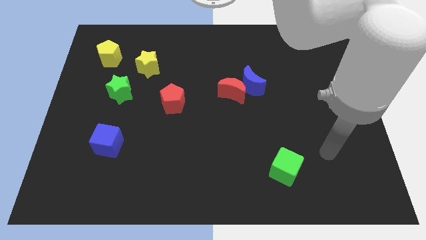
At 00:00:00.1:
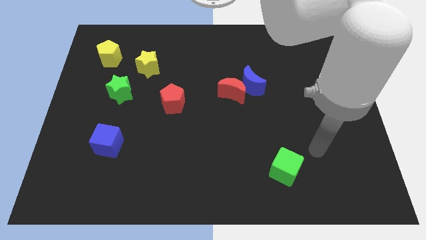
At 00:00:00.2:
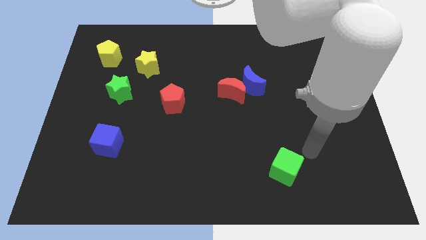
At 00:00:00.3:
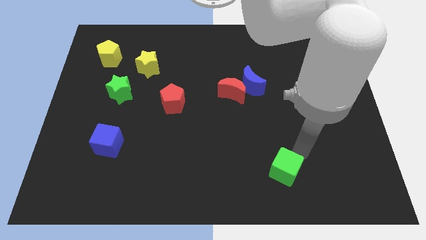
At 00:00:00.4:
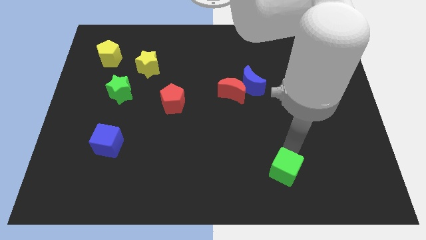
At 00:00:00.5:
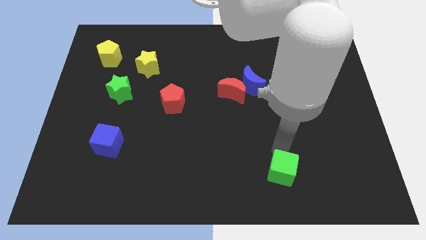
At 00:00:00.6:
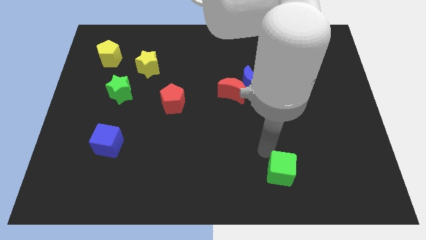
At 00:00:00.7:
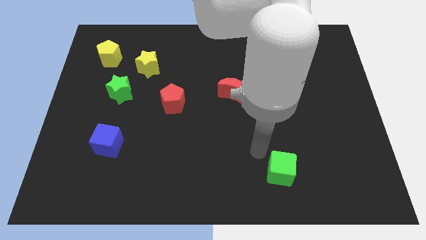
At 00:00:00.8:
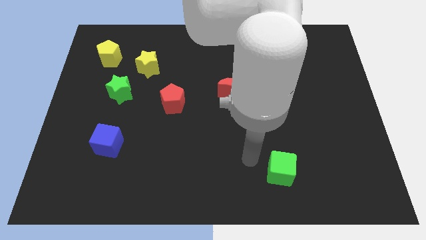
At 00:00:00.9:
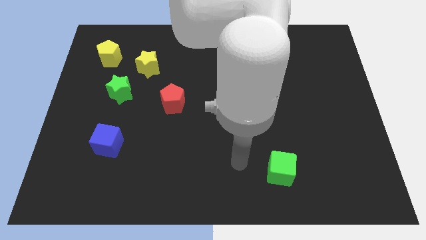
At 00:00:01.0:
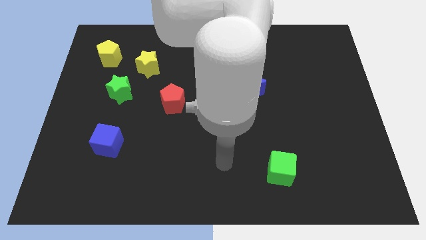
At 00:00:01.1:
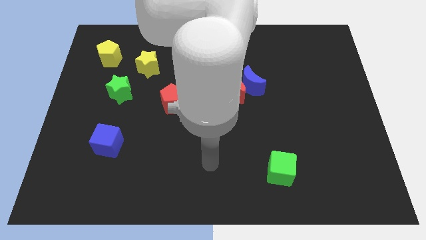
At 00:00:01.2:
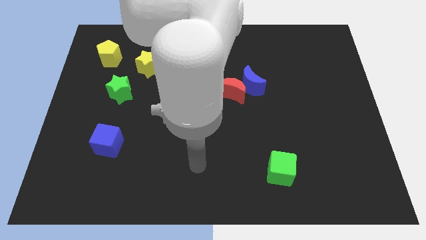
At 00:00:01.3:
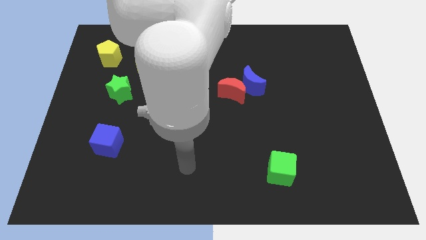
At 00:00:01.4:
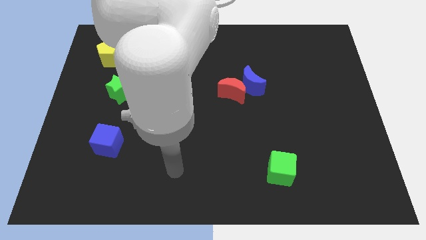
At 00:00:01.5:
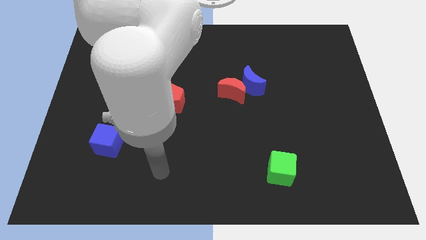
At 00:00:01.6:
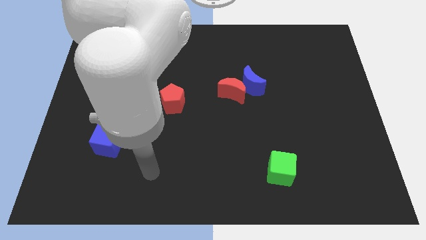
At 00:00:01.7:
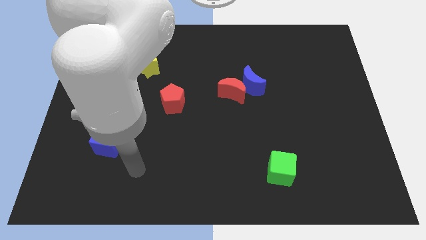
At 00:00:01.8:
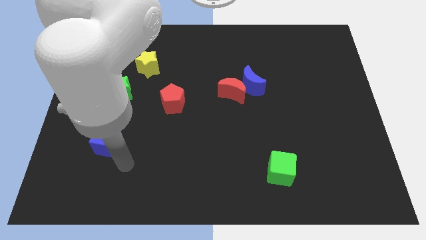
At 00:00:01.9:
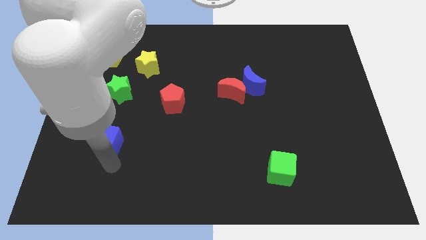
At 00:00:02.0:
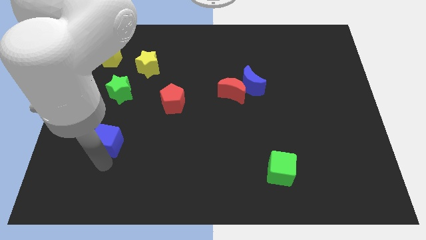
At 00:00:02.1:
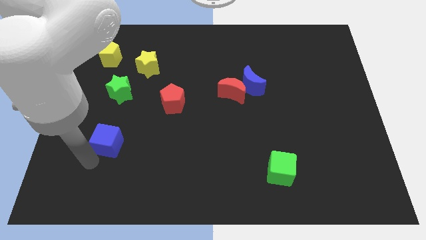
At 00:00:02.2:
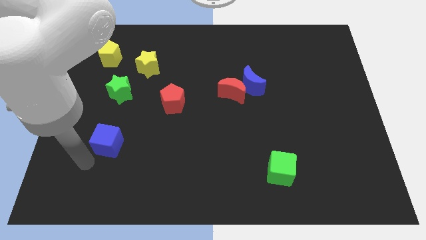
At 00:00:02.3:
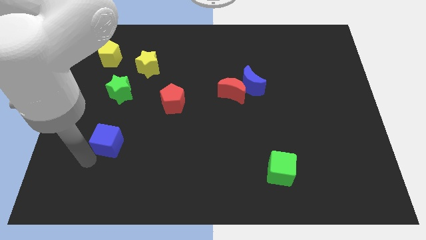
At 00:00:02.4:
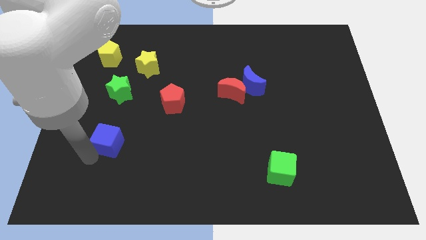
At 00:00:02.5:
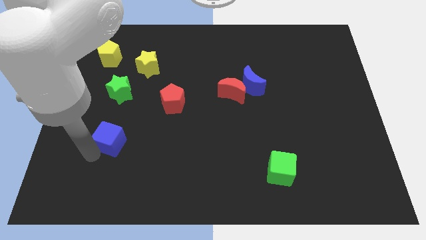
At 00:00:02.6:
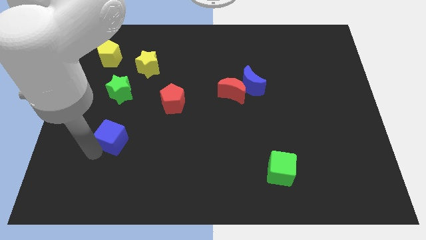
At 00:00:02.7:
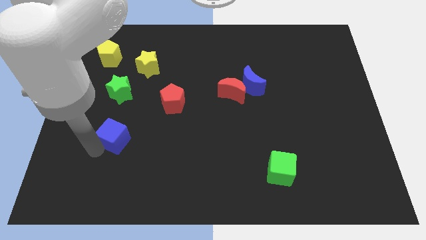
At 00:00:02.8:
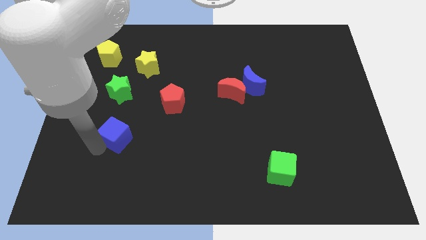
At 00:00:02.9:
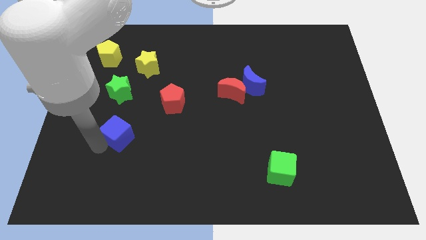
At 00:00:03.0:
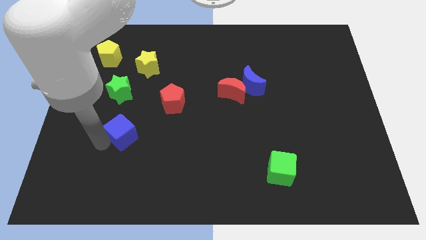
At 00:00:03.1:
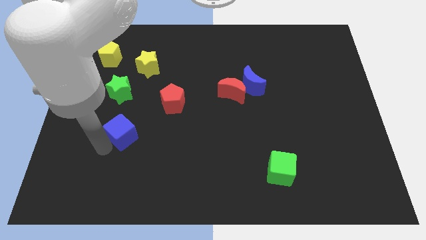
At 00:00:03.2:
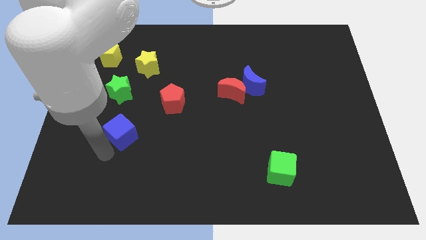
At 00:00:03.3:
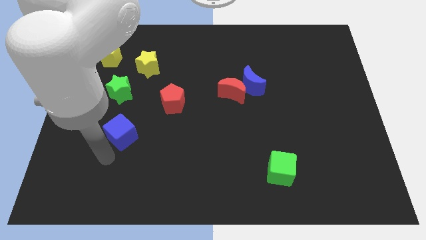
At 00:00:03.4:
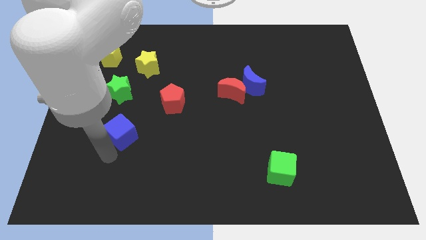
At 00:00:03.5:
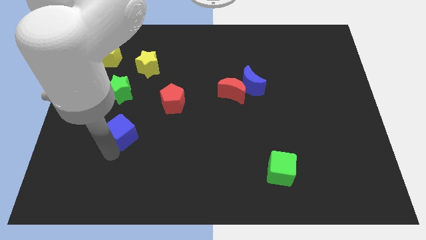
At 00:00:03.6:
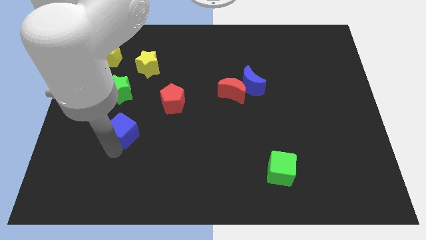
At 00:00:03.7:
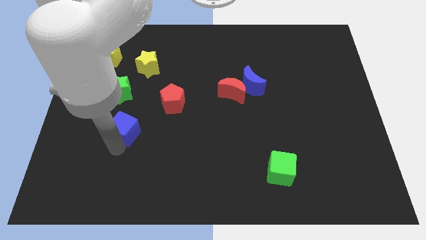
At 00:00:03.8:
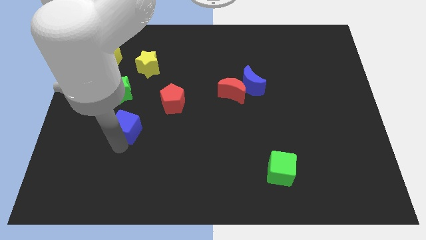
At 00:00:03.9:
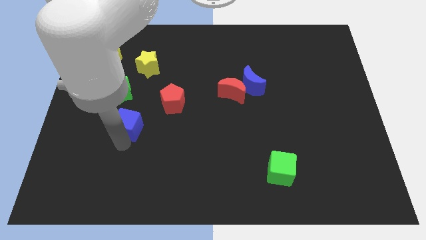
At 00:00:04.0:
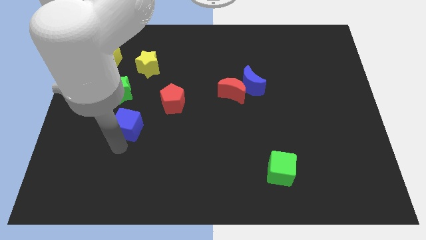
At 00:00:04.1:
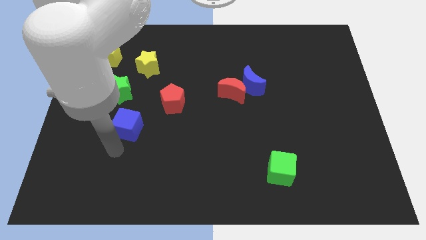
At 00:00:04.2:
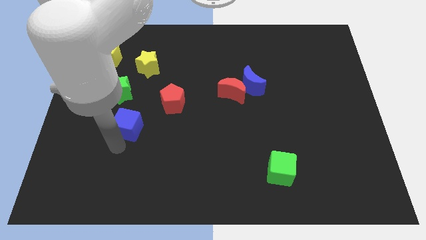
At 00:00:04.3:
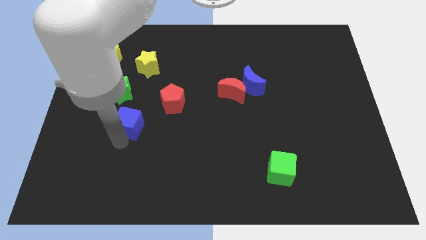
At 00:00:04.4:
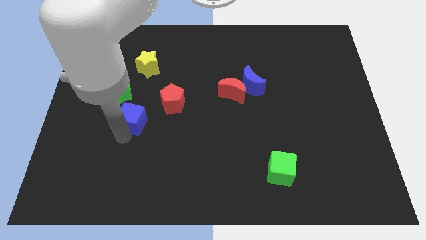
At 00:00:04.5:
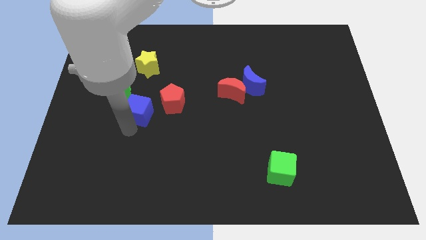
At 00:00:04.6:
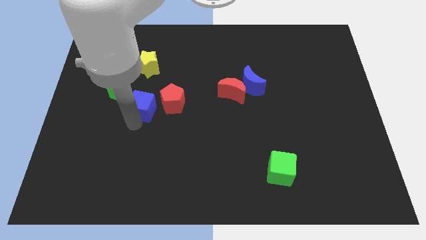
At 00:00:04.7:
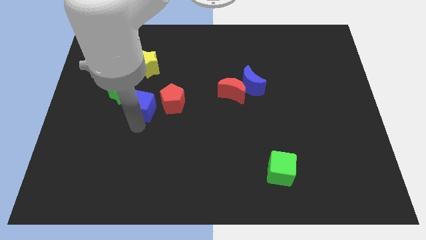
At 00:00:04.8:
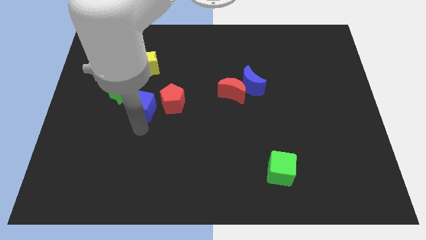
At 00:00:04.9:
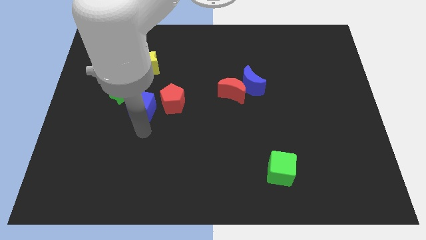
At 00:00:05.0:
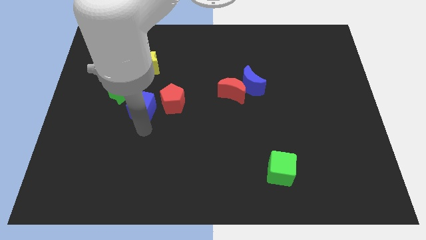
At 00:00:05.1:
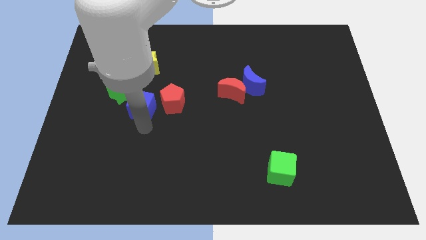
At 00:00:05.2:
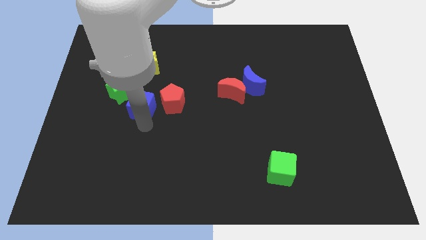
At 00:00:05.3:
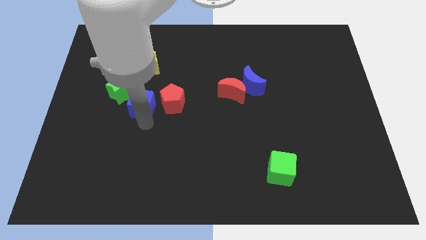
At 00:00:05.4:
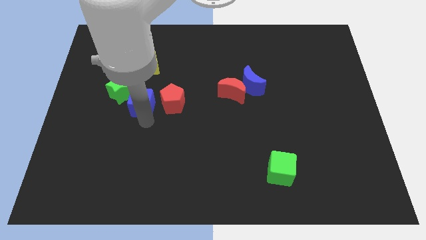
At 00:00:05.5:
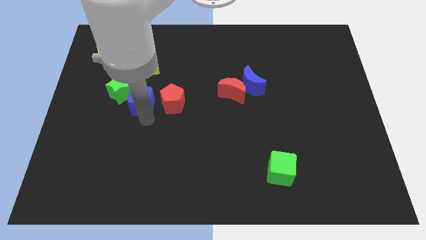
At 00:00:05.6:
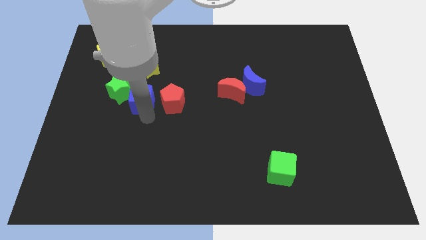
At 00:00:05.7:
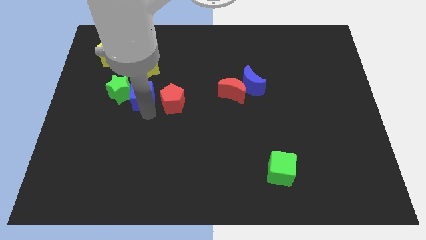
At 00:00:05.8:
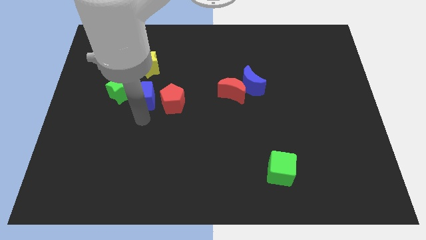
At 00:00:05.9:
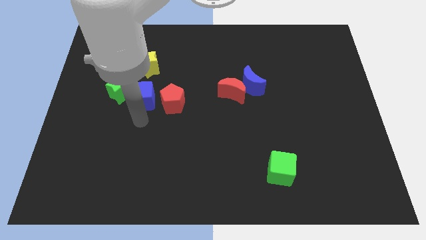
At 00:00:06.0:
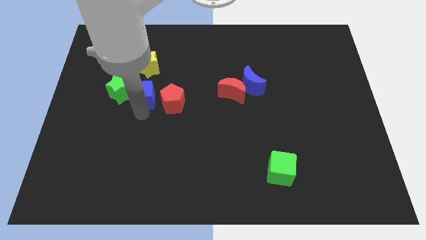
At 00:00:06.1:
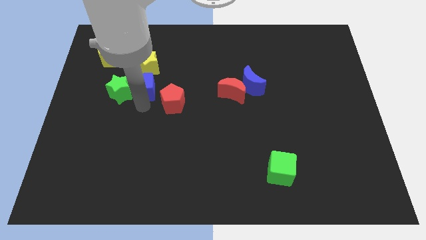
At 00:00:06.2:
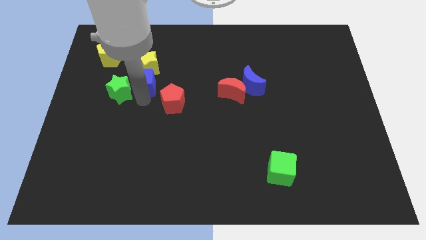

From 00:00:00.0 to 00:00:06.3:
move the blue cube close to the yellow star

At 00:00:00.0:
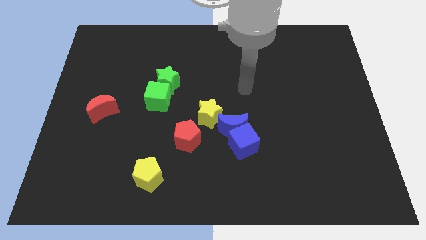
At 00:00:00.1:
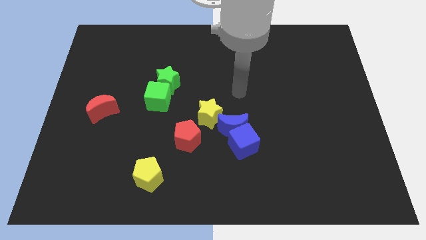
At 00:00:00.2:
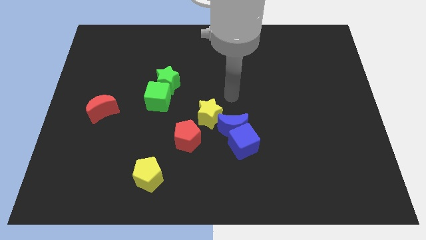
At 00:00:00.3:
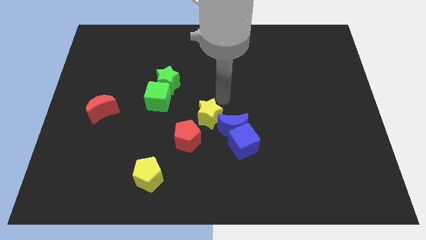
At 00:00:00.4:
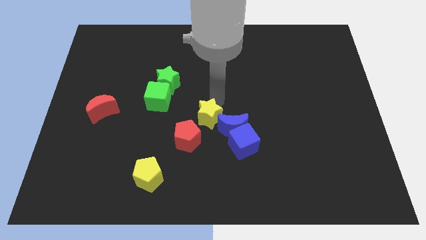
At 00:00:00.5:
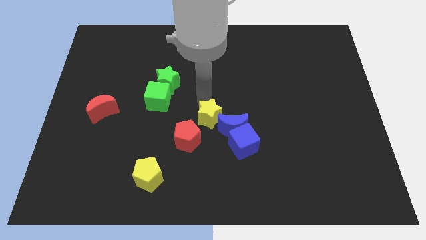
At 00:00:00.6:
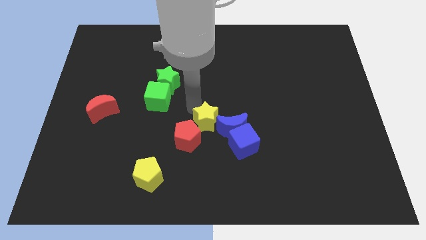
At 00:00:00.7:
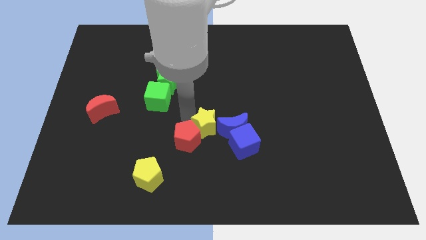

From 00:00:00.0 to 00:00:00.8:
slide the red pentagon close to the yellow star
